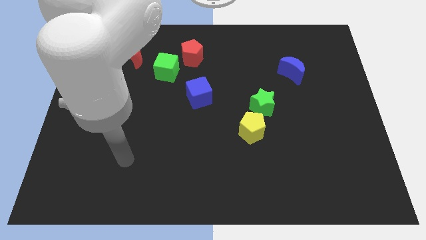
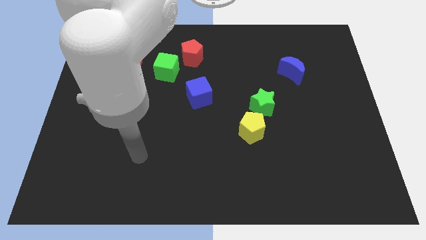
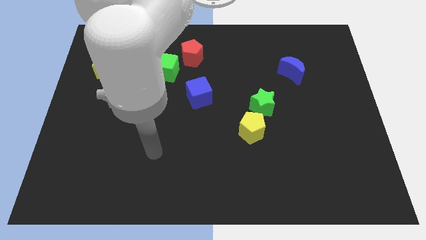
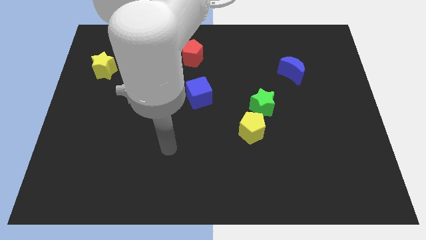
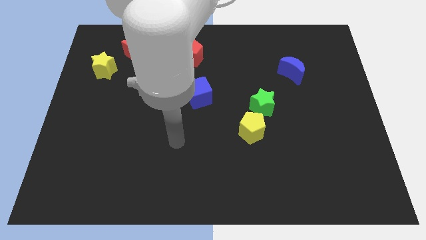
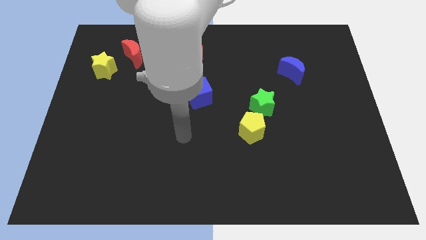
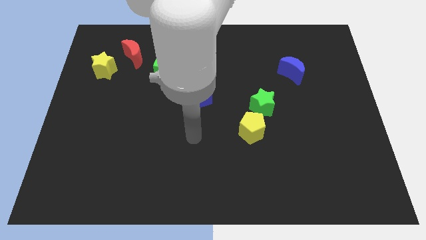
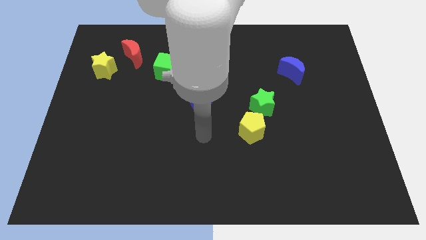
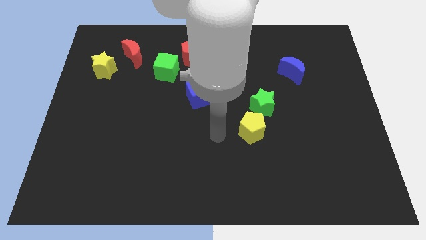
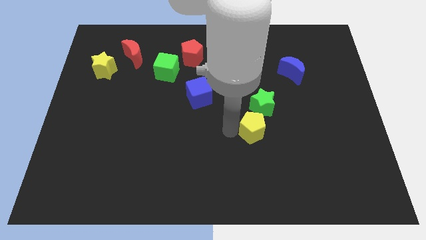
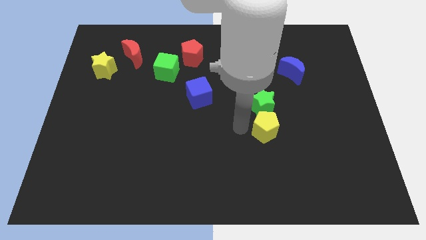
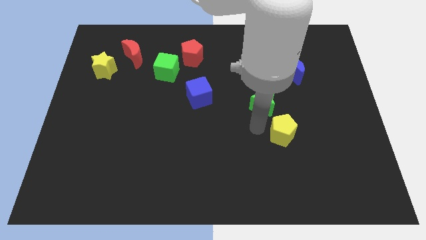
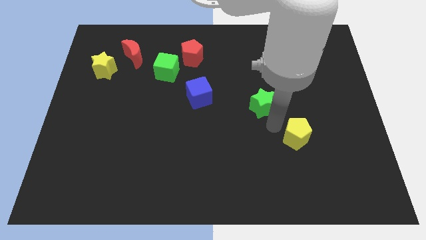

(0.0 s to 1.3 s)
pull the green star apart from the yellow pentagon

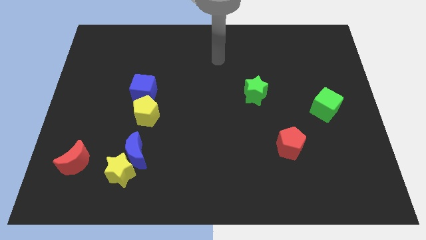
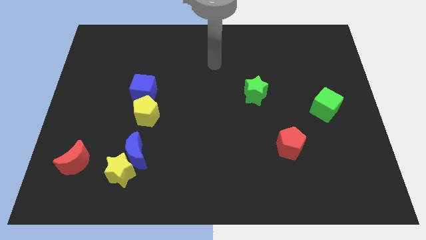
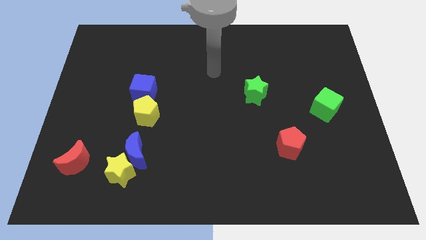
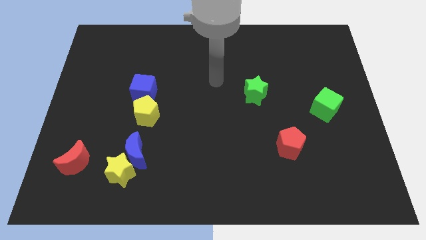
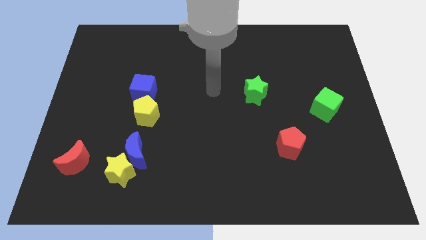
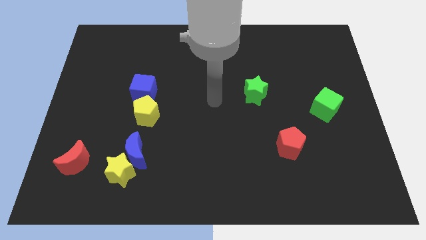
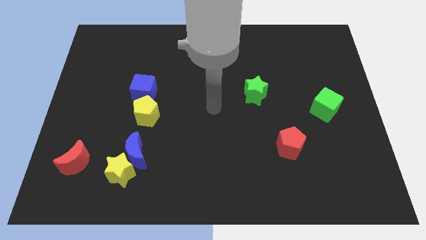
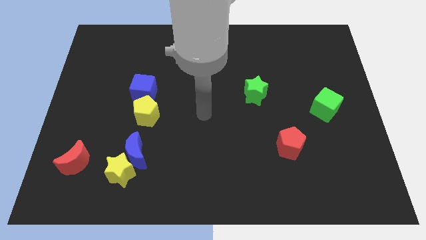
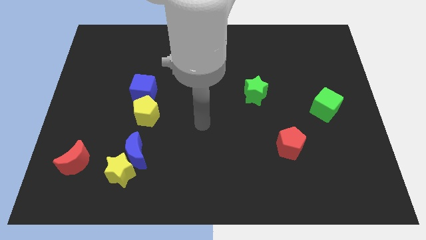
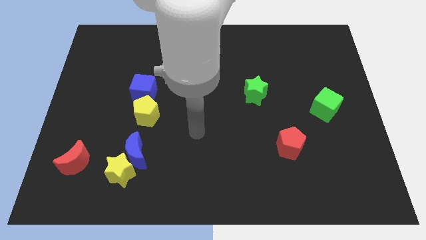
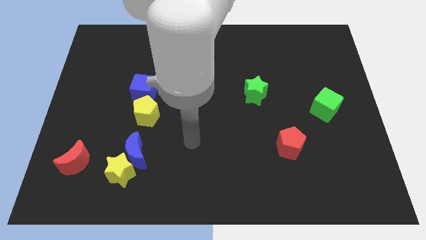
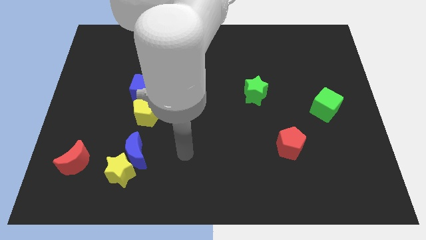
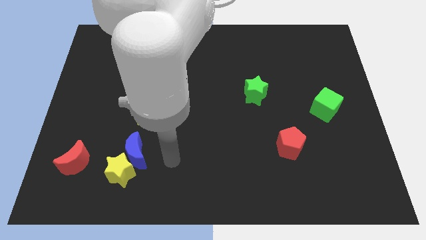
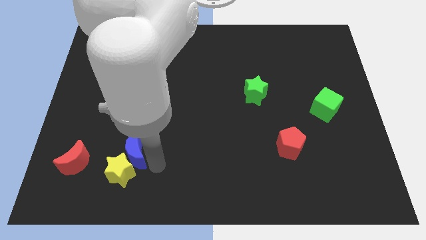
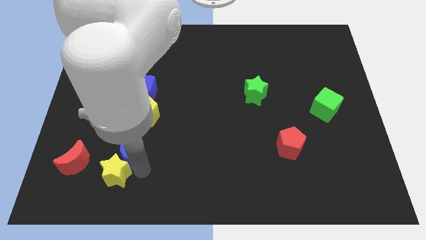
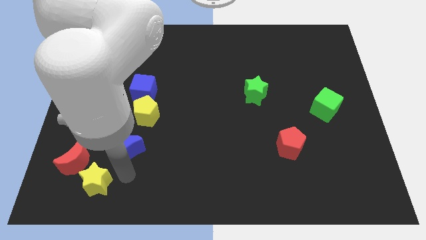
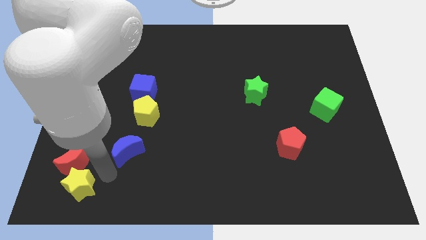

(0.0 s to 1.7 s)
pull the blue moon apart from the yellow star

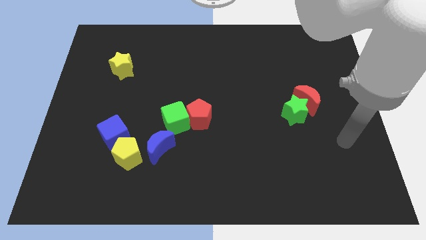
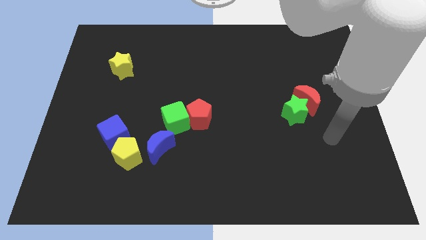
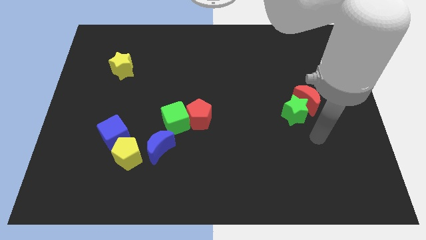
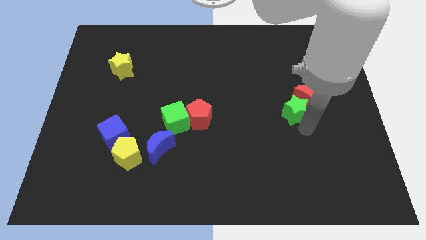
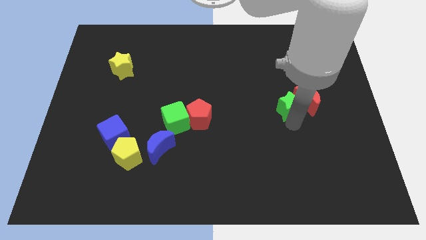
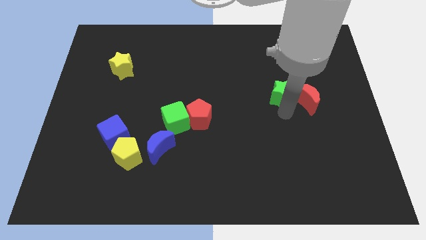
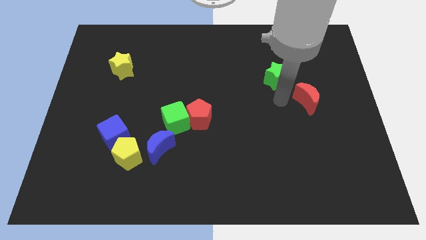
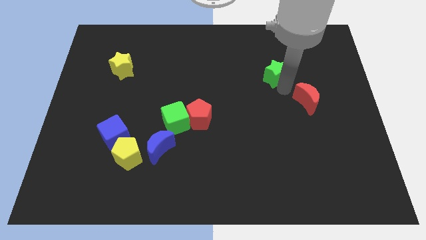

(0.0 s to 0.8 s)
move the red moon away from the green star

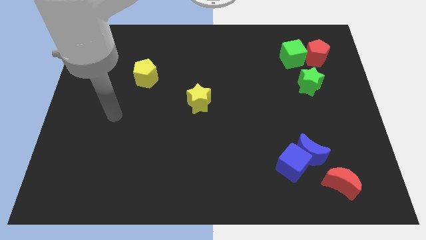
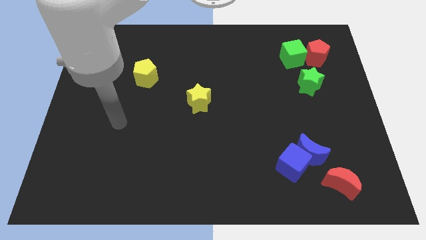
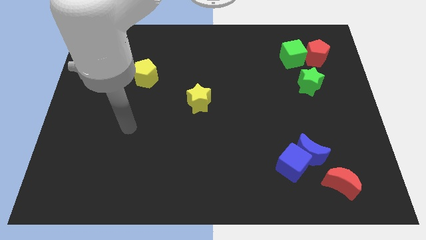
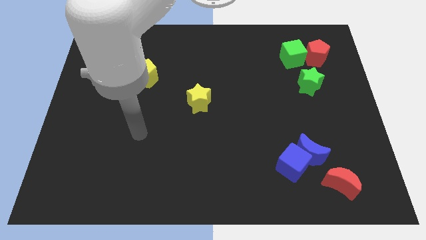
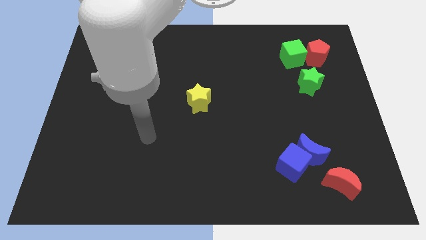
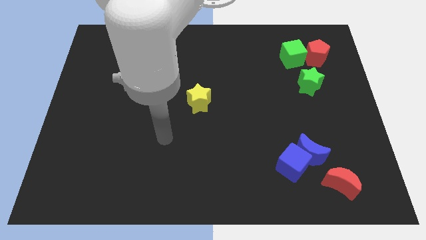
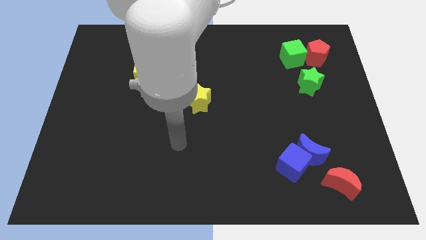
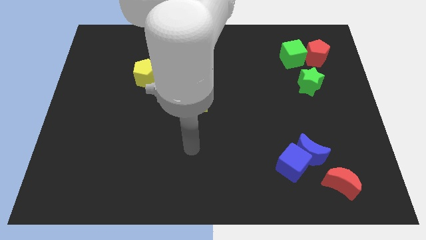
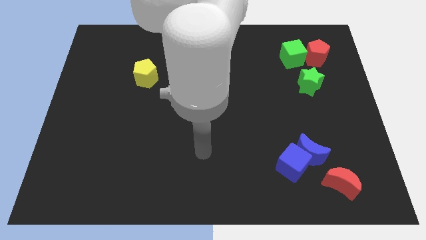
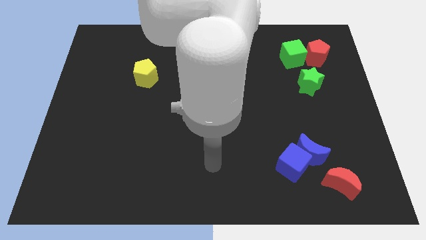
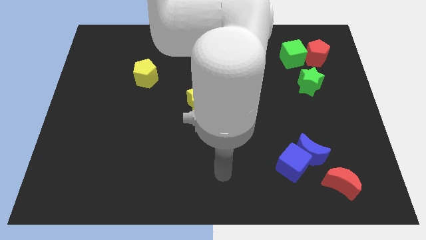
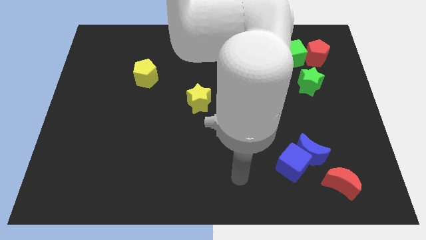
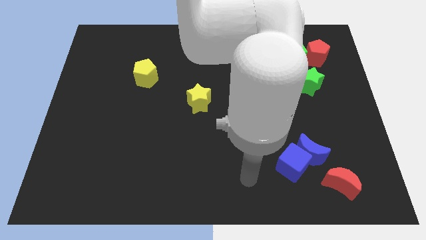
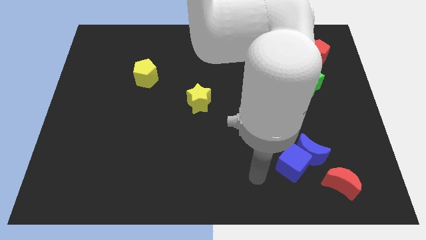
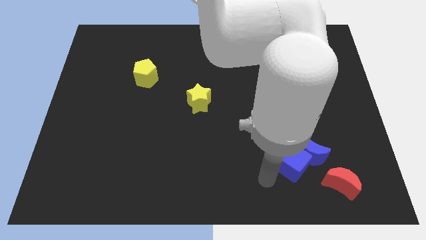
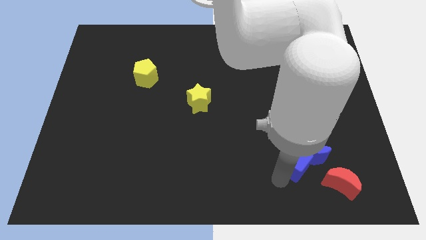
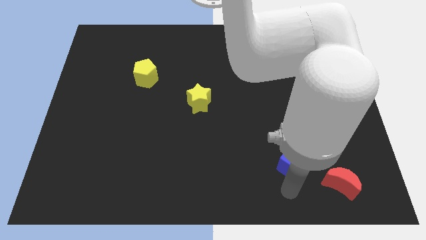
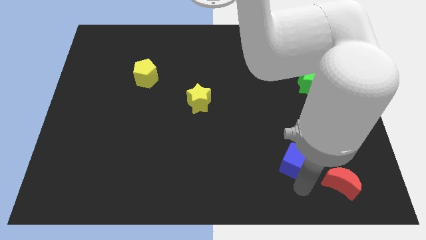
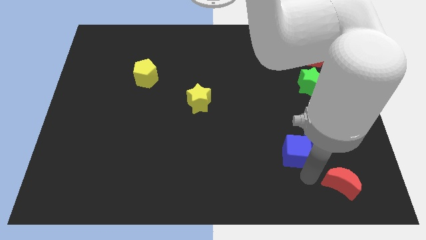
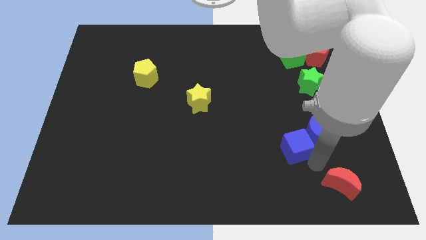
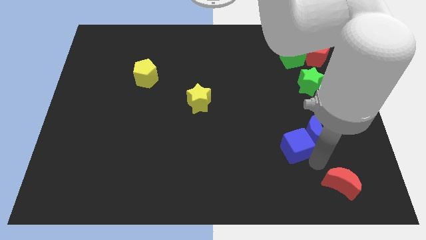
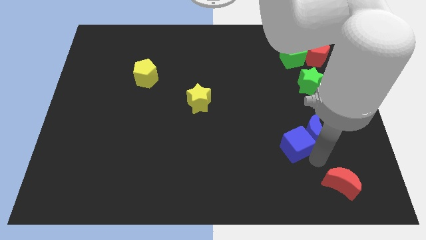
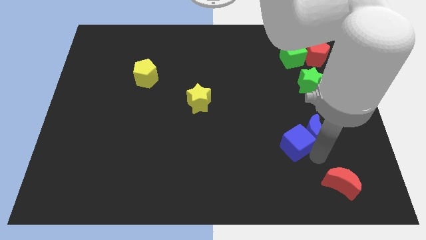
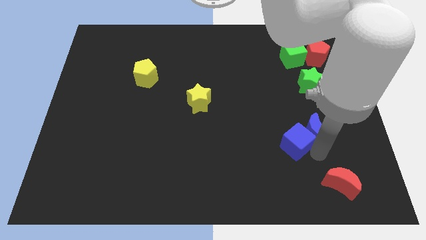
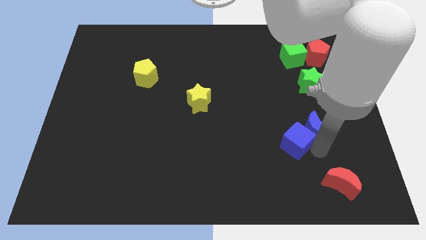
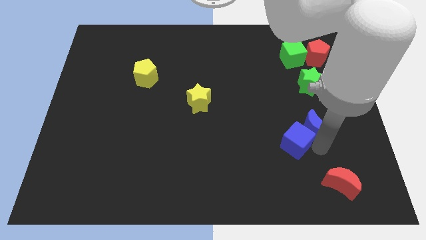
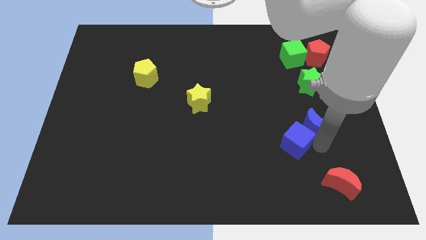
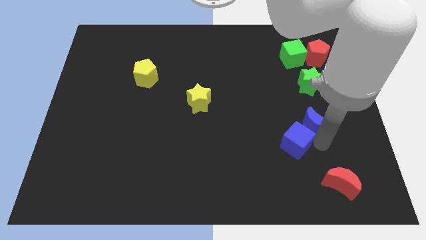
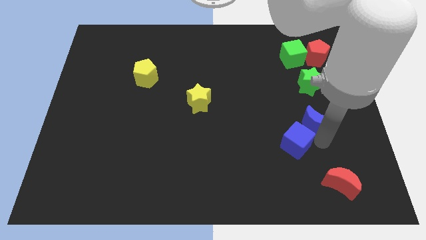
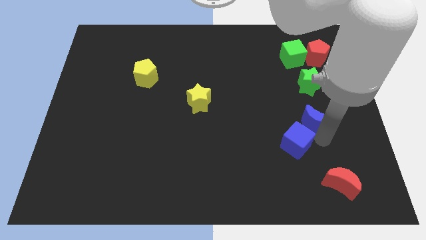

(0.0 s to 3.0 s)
pull the blue moon apart from the blue cube and red moon

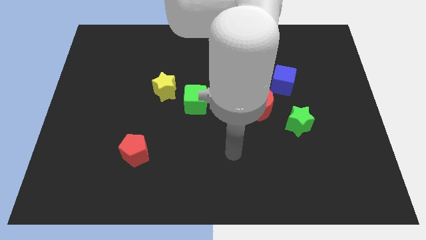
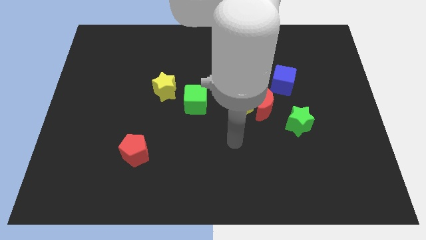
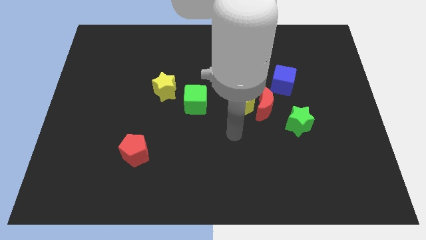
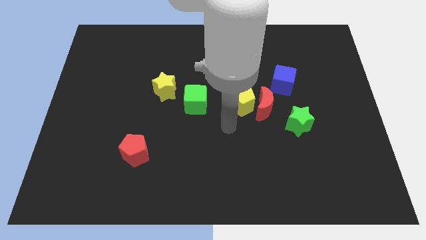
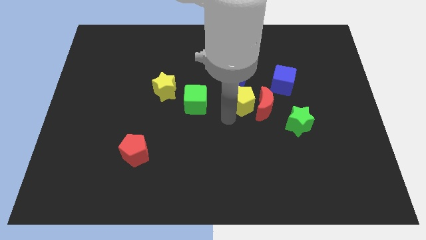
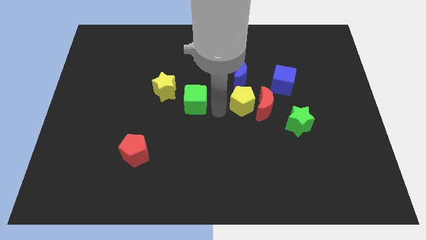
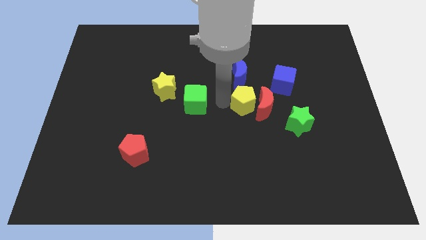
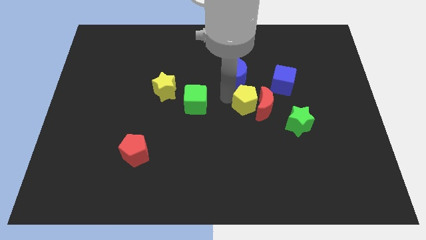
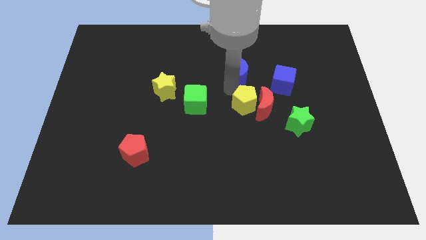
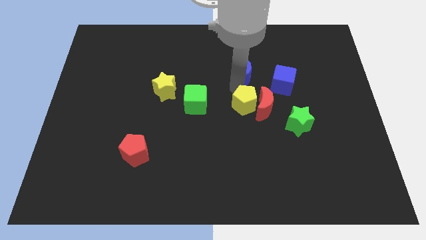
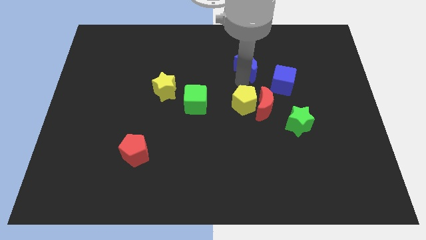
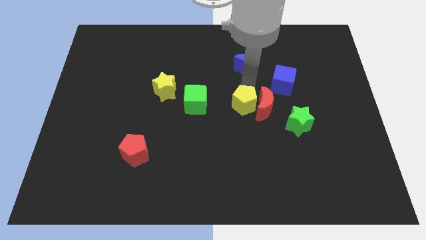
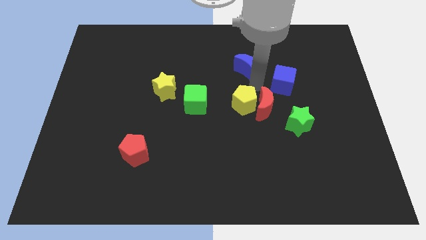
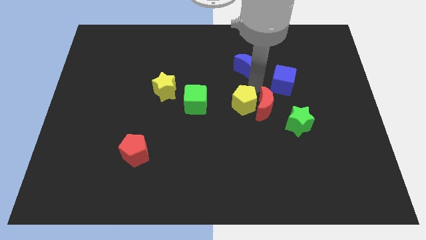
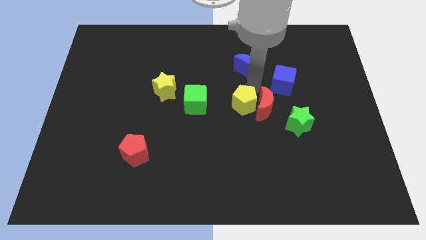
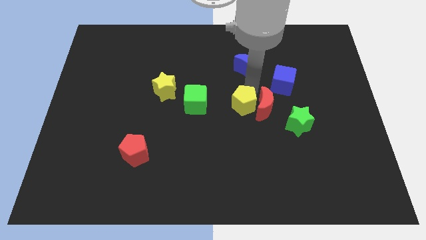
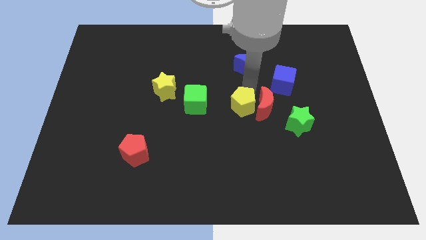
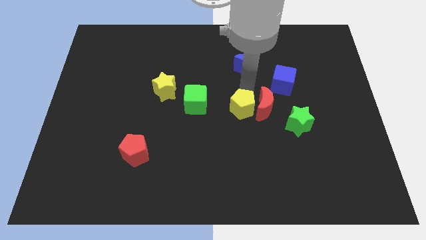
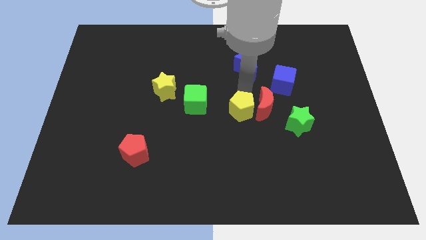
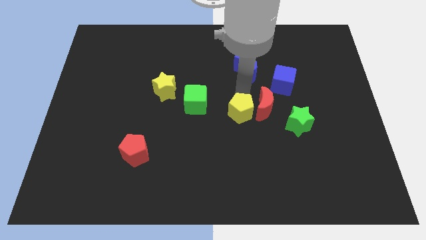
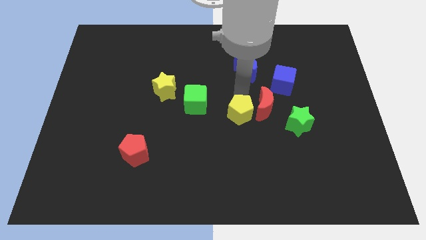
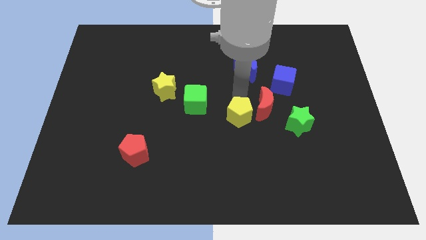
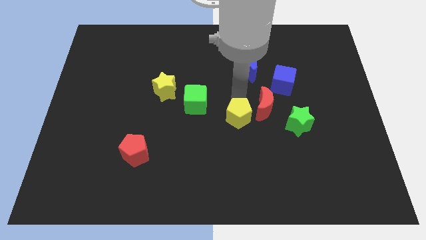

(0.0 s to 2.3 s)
move the yellow pentagon away from the red moon and blue moon

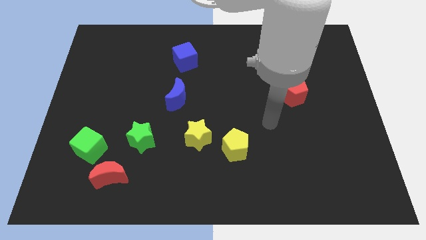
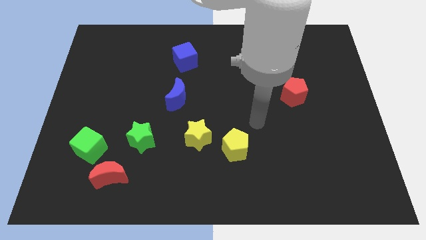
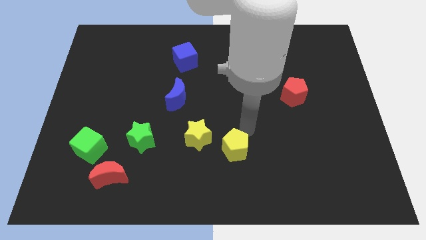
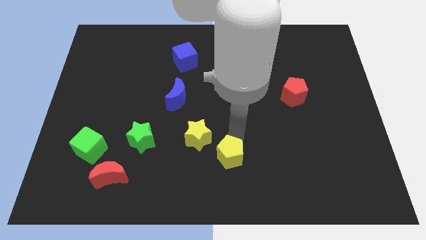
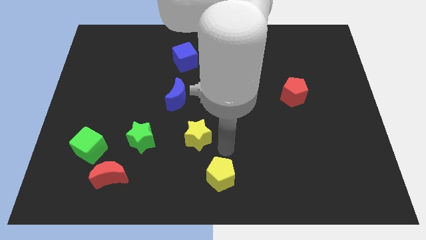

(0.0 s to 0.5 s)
move the yellow star away from the yellow pentagon
